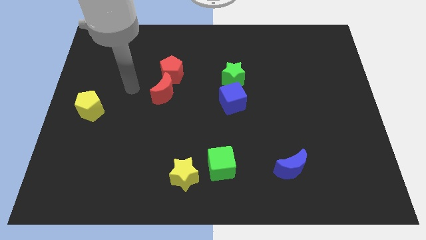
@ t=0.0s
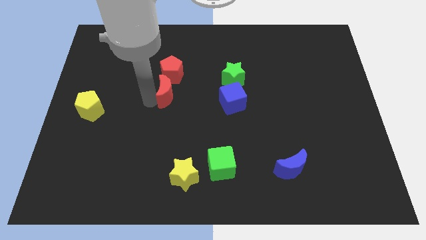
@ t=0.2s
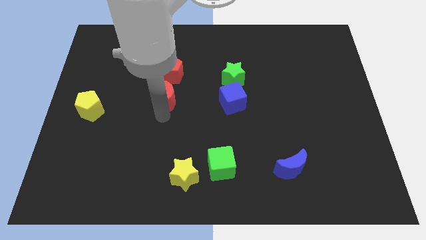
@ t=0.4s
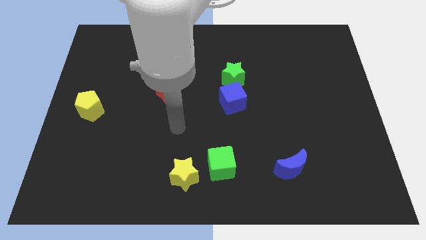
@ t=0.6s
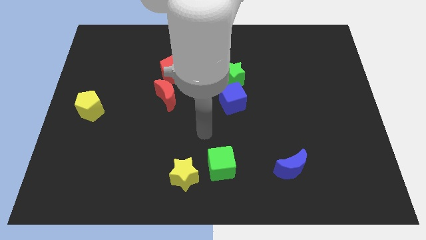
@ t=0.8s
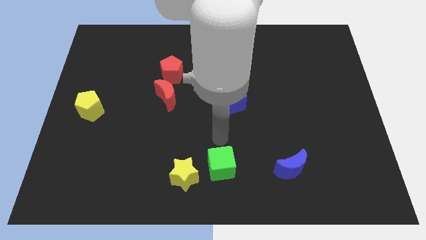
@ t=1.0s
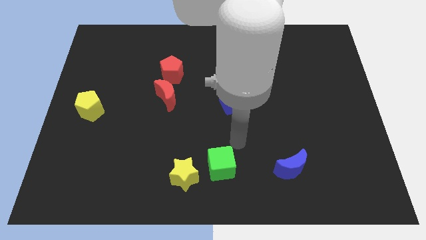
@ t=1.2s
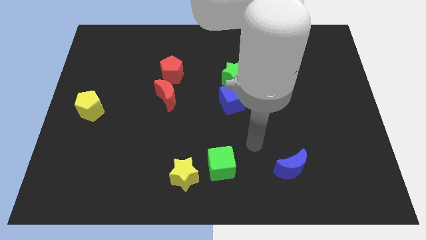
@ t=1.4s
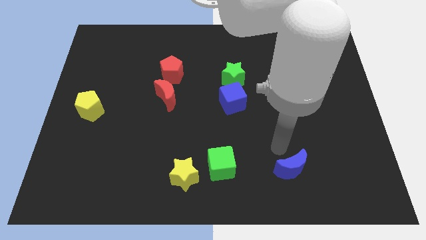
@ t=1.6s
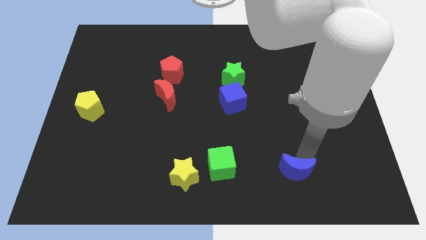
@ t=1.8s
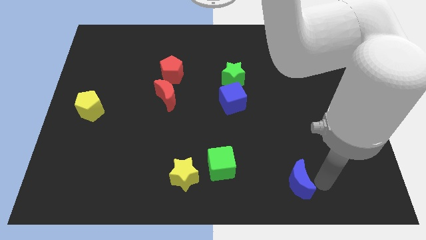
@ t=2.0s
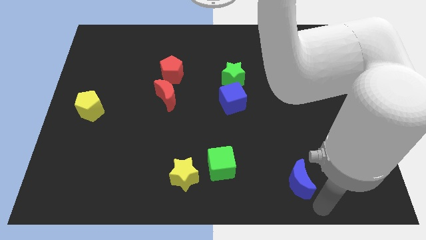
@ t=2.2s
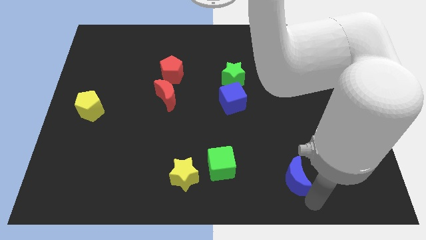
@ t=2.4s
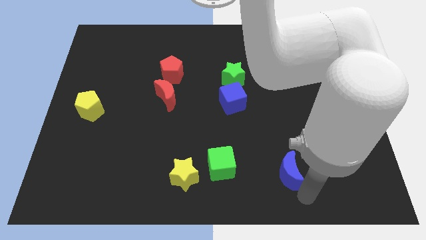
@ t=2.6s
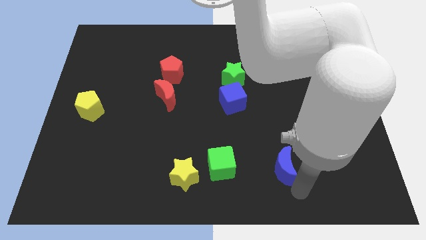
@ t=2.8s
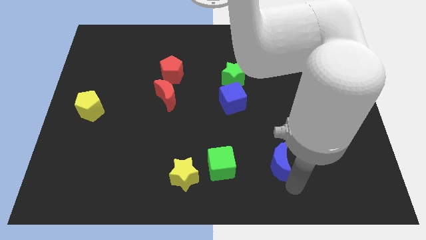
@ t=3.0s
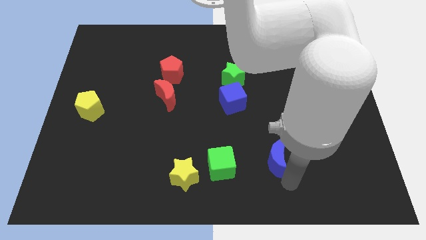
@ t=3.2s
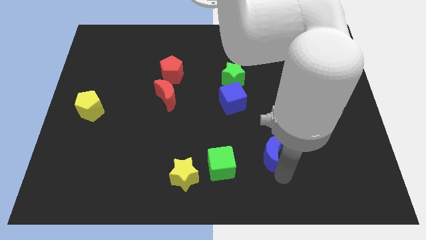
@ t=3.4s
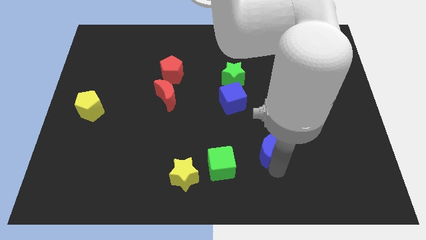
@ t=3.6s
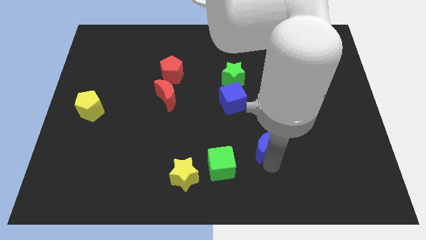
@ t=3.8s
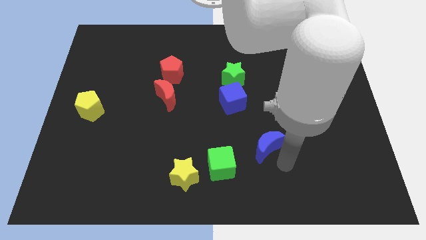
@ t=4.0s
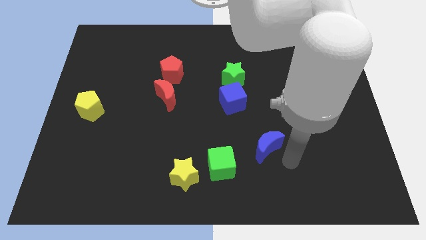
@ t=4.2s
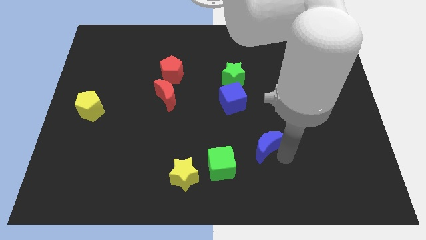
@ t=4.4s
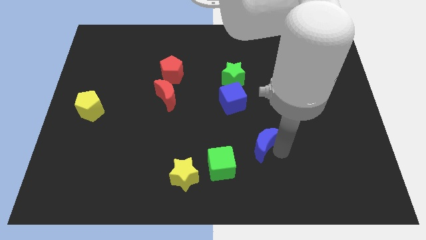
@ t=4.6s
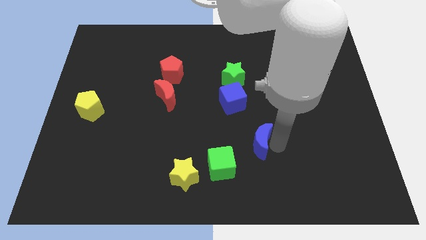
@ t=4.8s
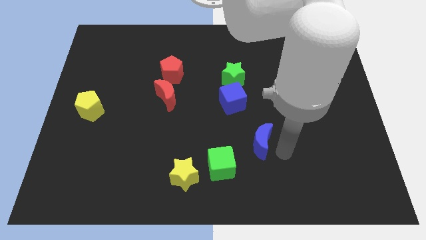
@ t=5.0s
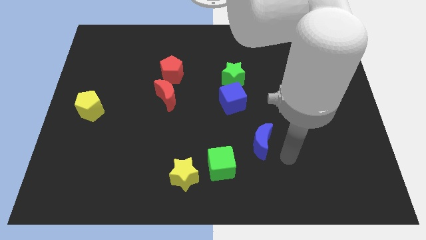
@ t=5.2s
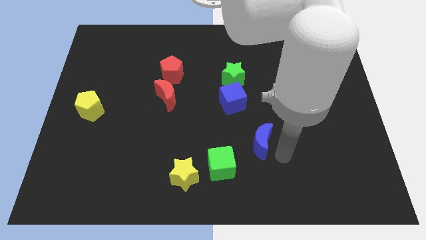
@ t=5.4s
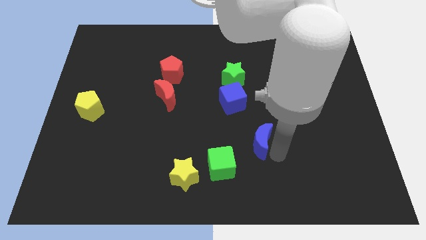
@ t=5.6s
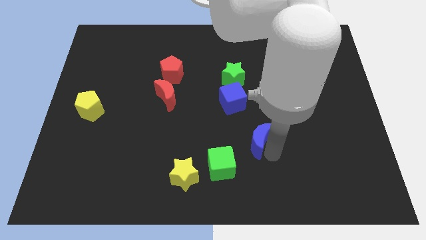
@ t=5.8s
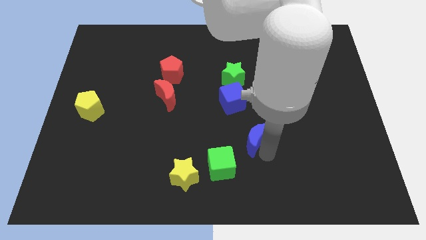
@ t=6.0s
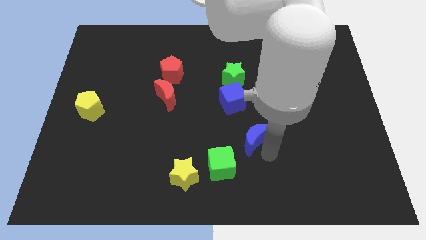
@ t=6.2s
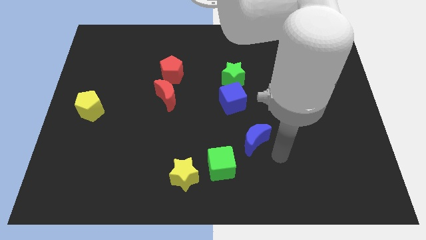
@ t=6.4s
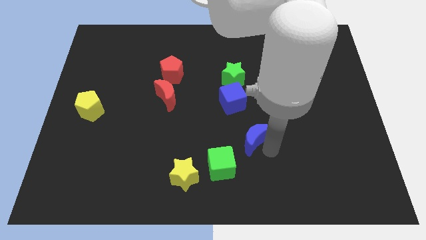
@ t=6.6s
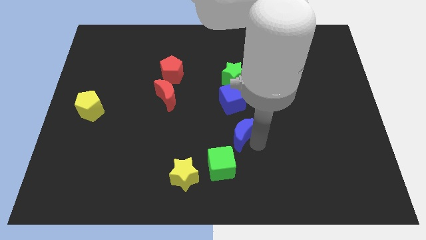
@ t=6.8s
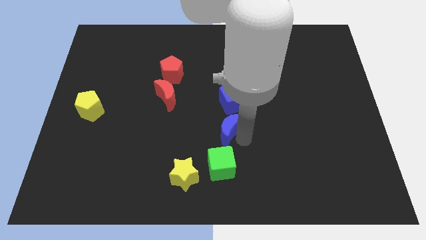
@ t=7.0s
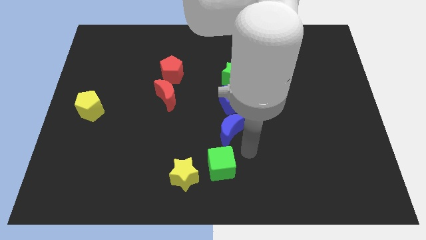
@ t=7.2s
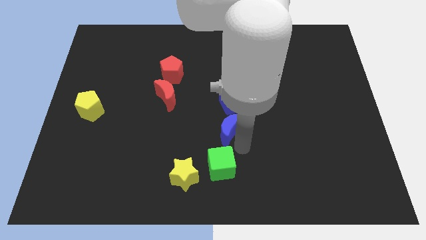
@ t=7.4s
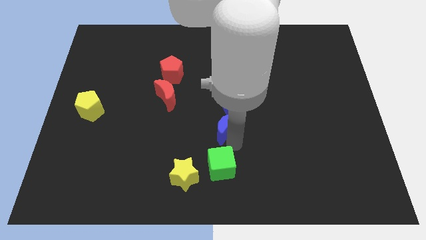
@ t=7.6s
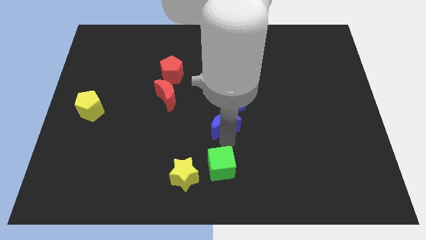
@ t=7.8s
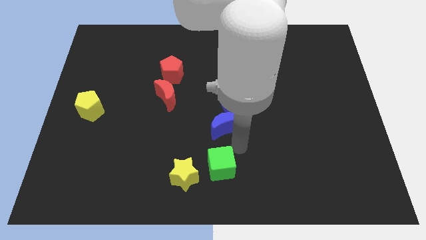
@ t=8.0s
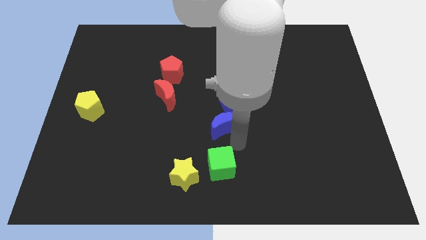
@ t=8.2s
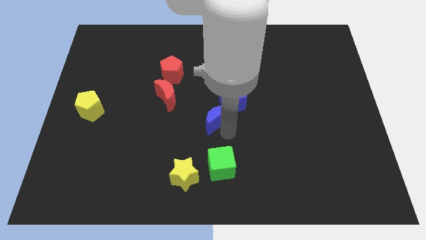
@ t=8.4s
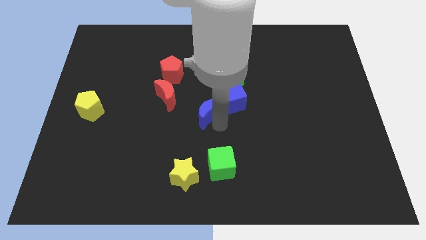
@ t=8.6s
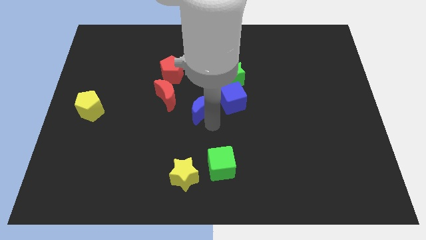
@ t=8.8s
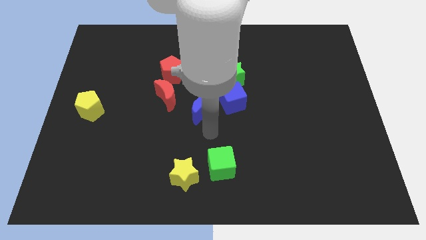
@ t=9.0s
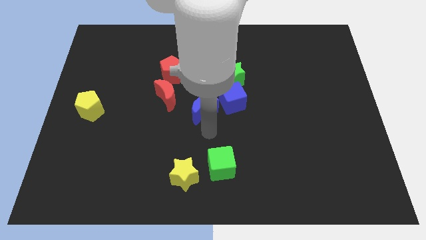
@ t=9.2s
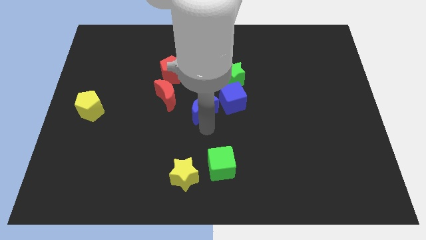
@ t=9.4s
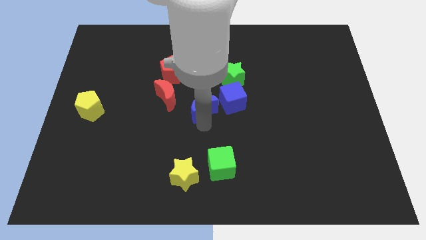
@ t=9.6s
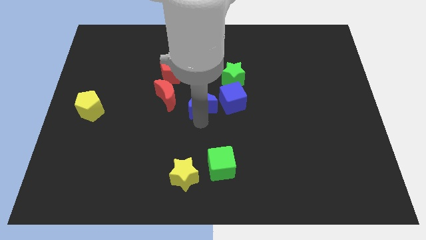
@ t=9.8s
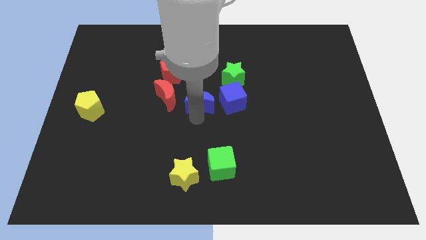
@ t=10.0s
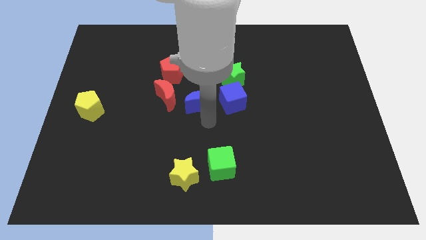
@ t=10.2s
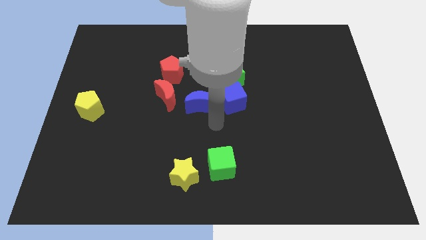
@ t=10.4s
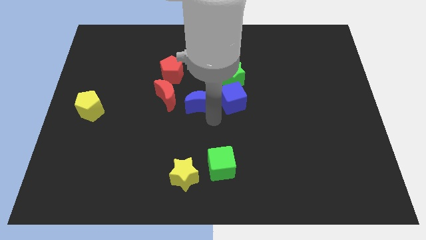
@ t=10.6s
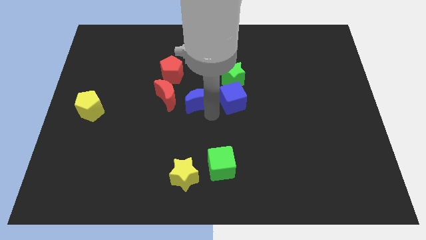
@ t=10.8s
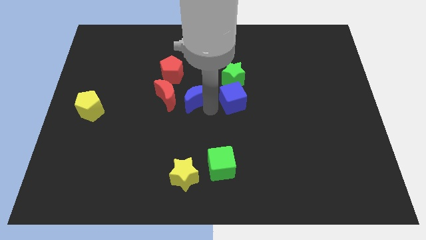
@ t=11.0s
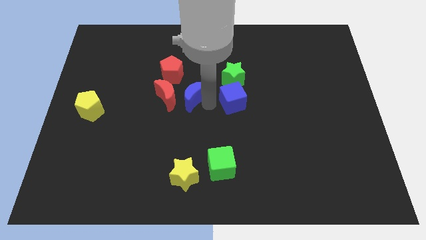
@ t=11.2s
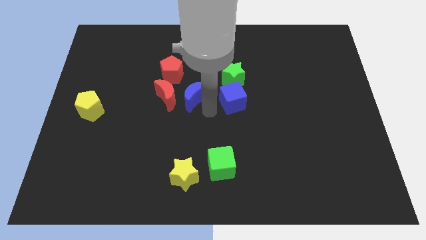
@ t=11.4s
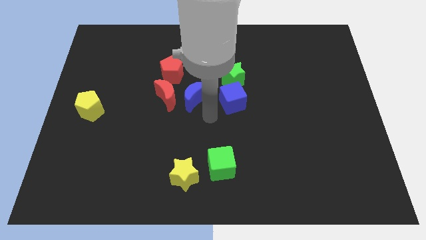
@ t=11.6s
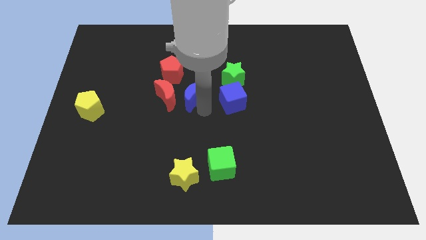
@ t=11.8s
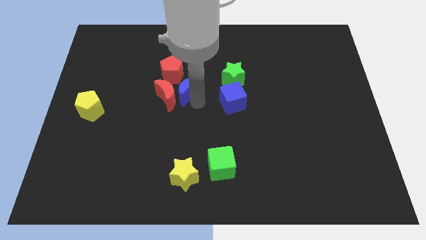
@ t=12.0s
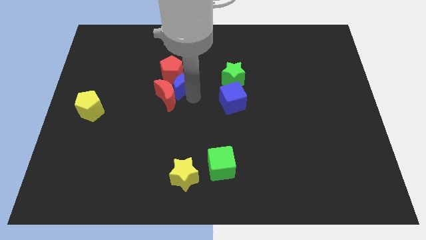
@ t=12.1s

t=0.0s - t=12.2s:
push the blue moon to the red pentagon
